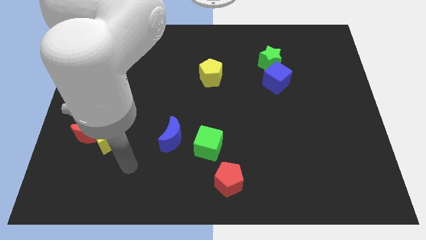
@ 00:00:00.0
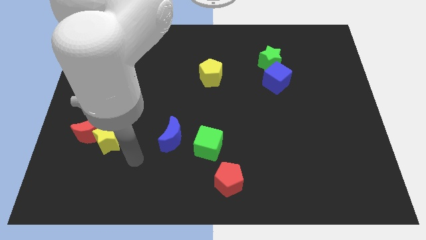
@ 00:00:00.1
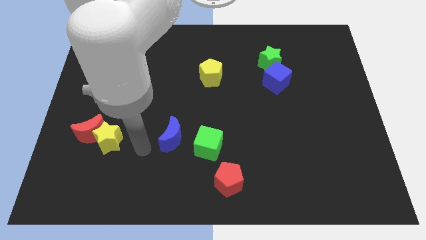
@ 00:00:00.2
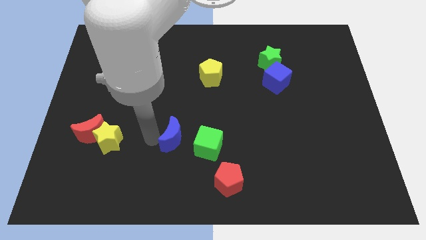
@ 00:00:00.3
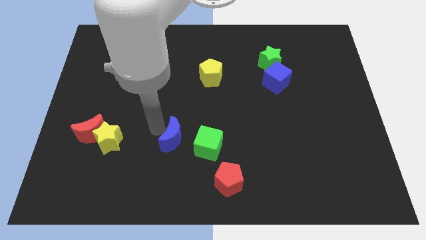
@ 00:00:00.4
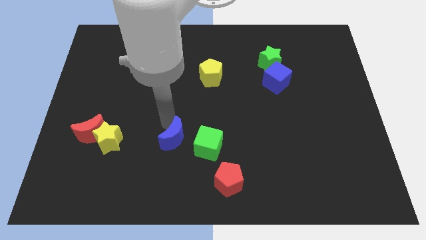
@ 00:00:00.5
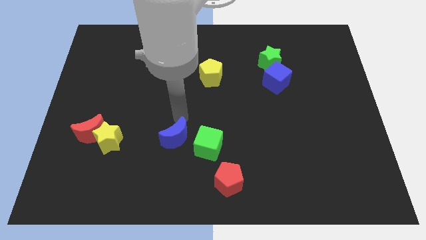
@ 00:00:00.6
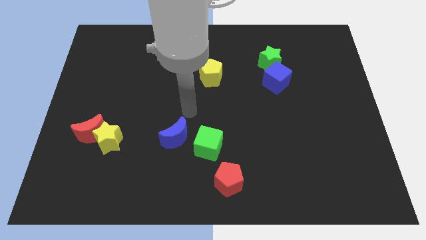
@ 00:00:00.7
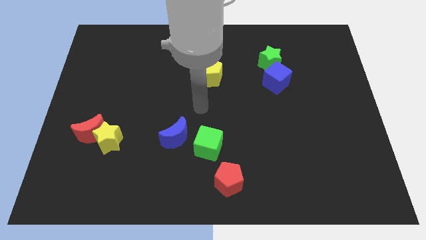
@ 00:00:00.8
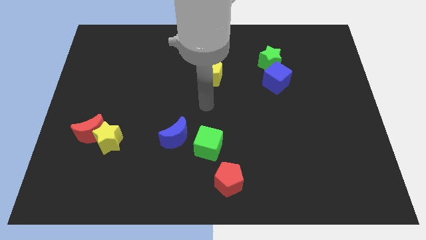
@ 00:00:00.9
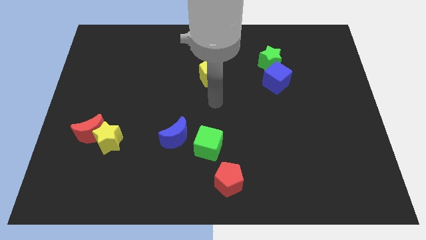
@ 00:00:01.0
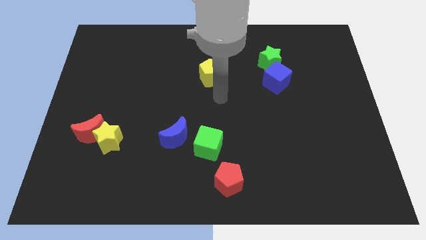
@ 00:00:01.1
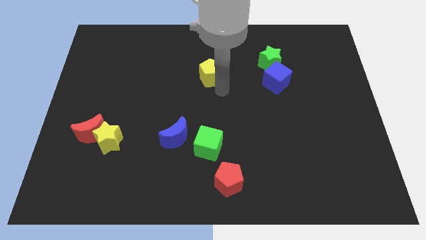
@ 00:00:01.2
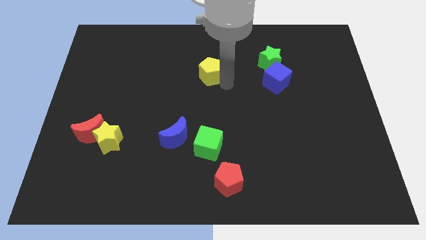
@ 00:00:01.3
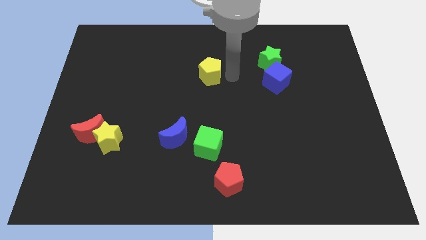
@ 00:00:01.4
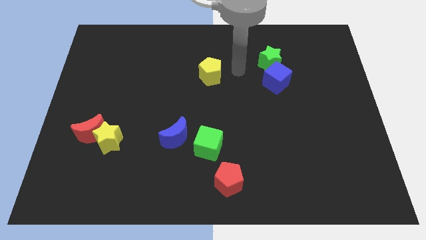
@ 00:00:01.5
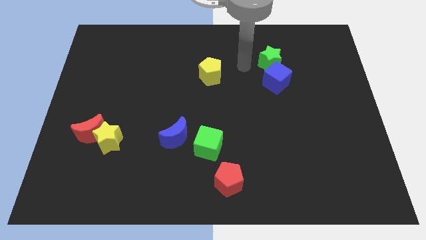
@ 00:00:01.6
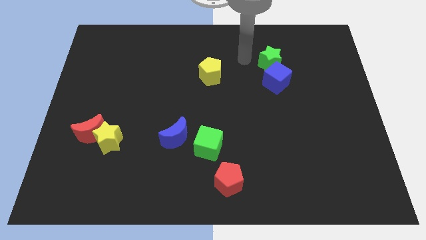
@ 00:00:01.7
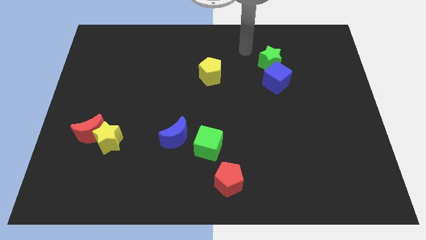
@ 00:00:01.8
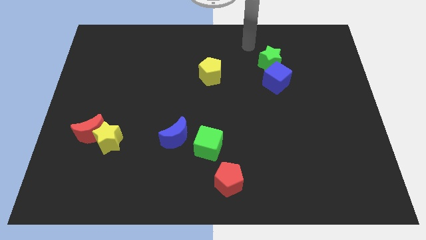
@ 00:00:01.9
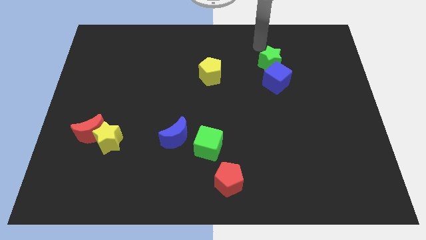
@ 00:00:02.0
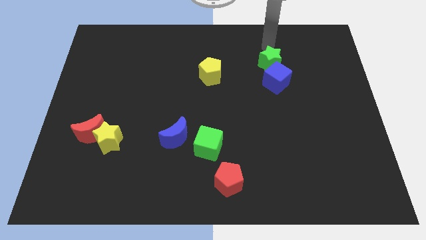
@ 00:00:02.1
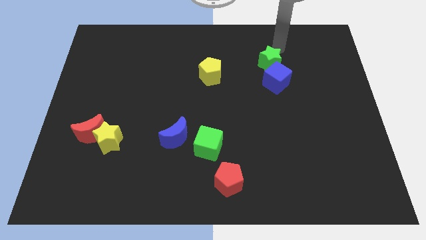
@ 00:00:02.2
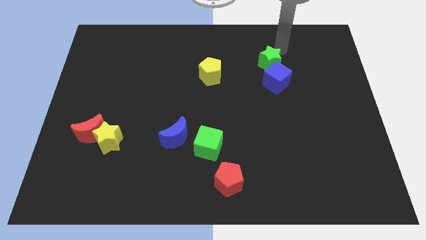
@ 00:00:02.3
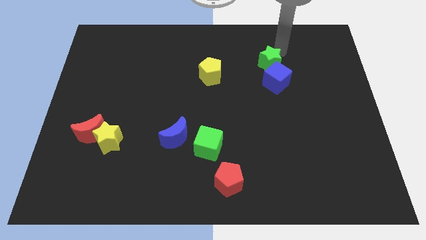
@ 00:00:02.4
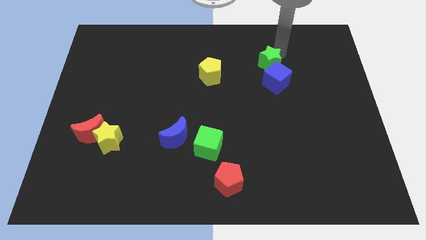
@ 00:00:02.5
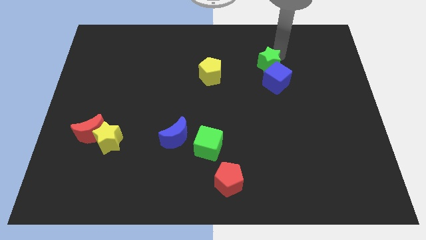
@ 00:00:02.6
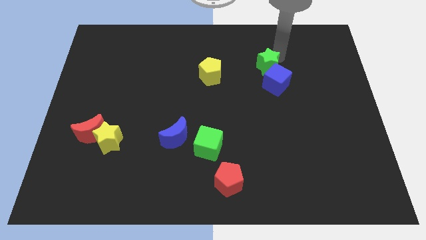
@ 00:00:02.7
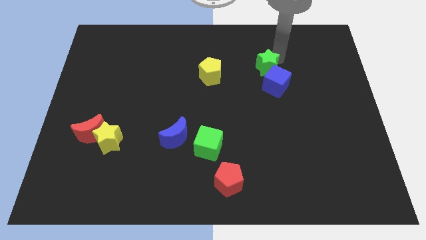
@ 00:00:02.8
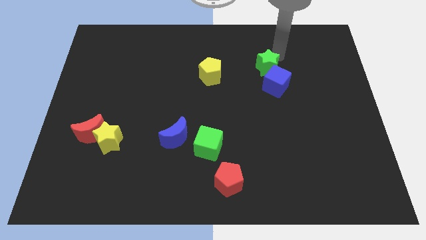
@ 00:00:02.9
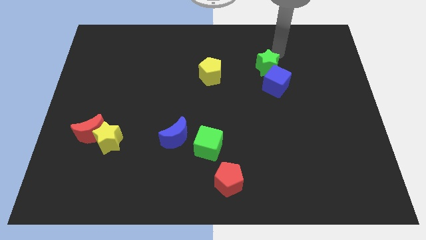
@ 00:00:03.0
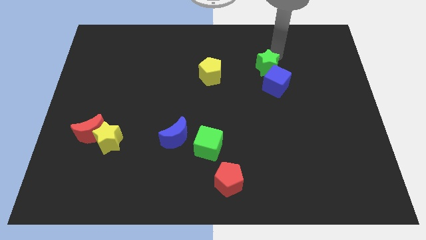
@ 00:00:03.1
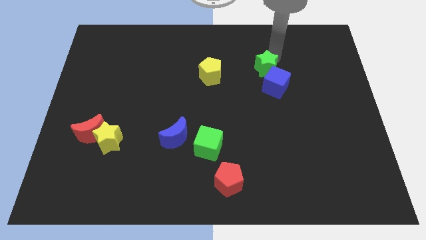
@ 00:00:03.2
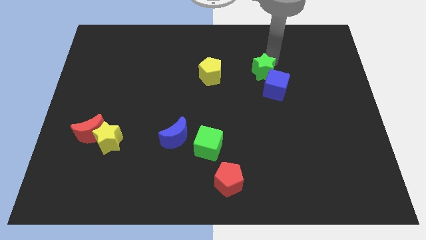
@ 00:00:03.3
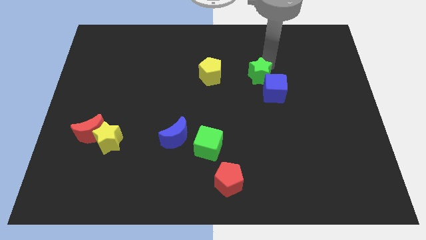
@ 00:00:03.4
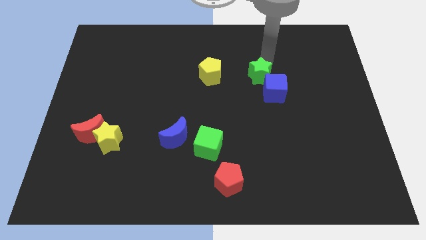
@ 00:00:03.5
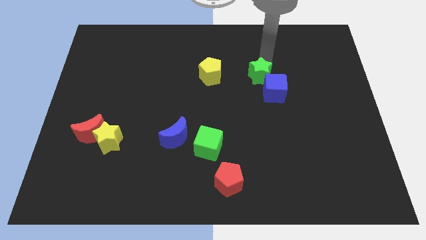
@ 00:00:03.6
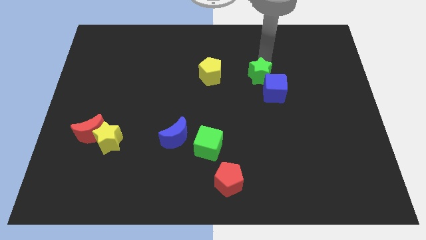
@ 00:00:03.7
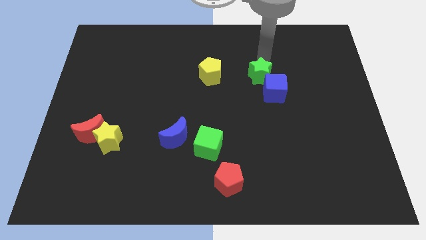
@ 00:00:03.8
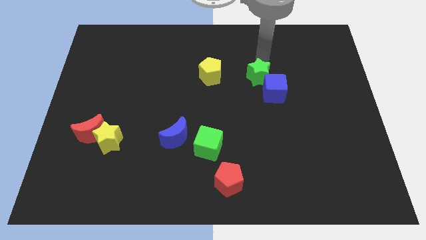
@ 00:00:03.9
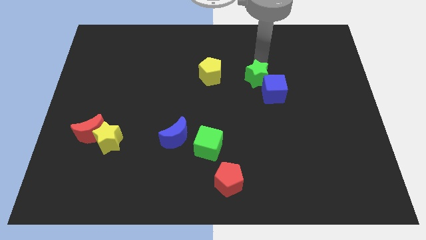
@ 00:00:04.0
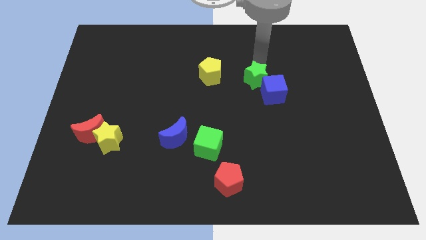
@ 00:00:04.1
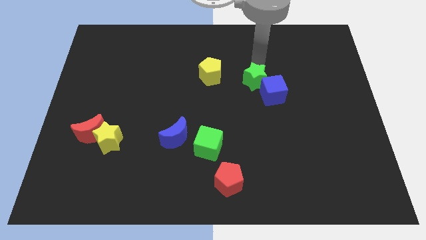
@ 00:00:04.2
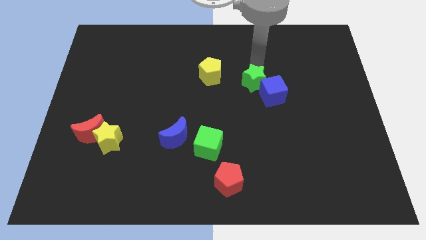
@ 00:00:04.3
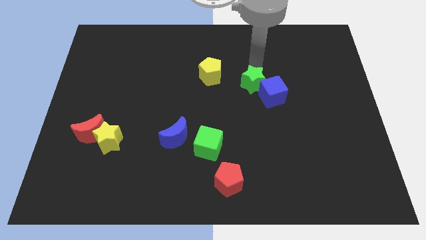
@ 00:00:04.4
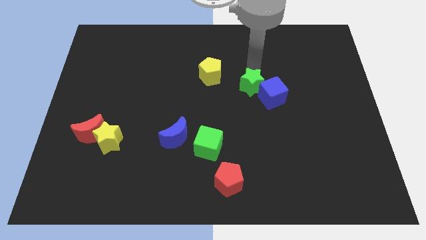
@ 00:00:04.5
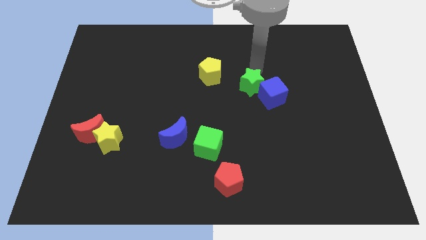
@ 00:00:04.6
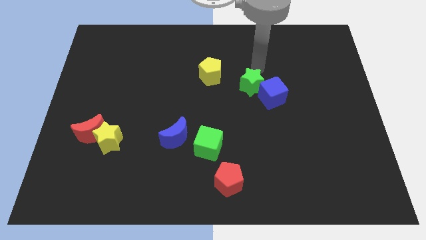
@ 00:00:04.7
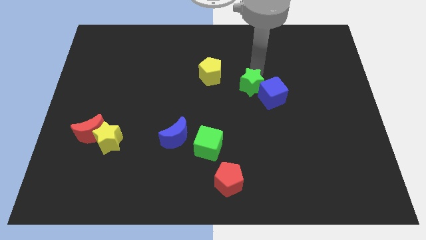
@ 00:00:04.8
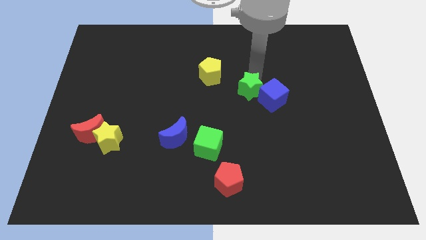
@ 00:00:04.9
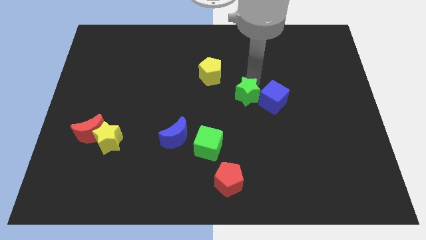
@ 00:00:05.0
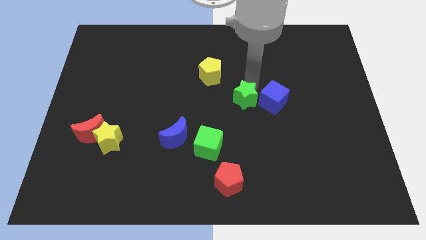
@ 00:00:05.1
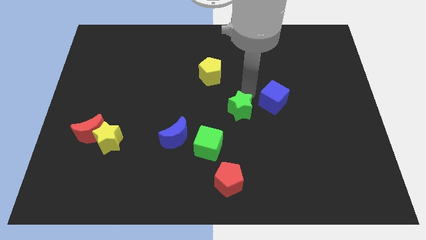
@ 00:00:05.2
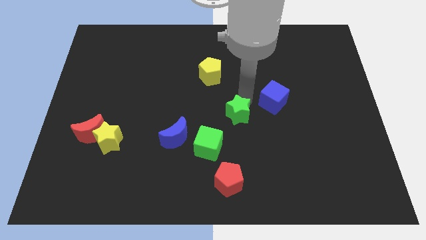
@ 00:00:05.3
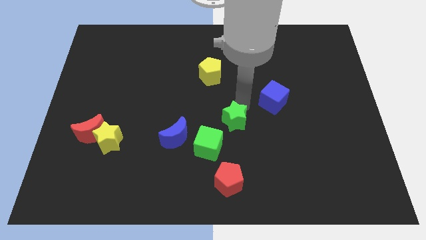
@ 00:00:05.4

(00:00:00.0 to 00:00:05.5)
move the green star to the top of the red pentagon
